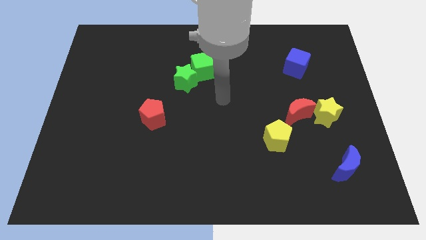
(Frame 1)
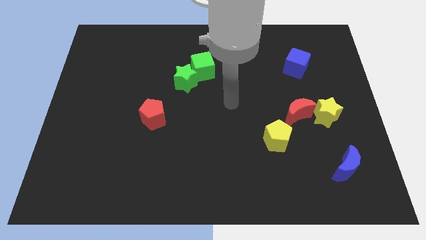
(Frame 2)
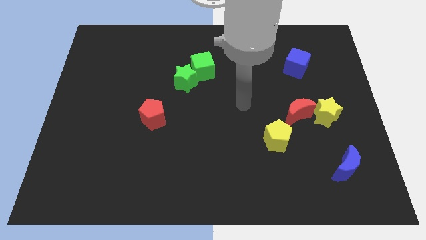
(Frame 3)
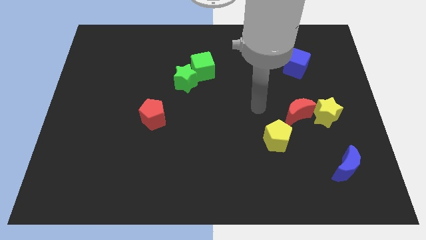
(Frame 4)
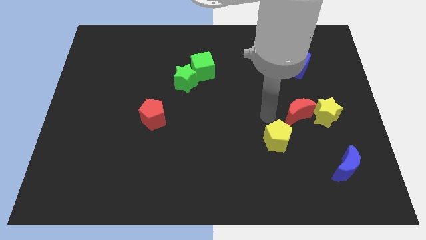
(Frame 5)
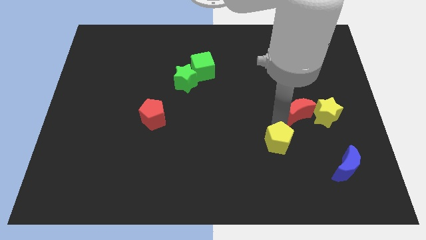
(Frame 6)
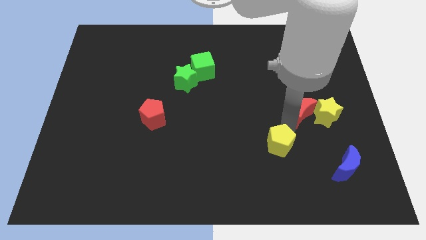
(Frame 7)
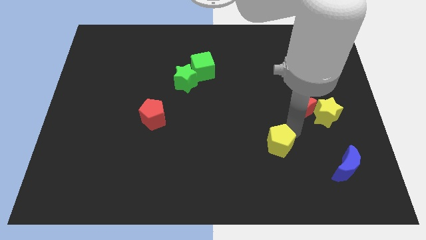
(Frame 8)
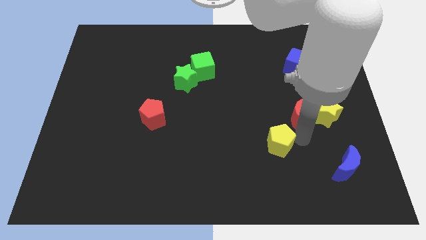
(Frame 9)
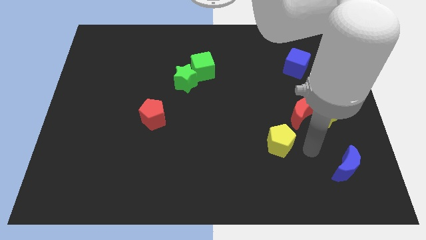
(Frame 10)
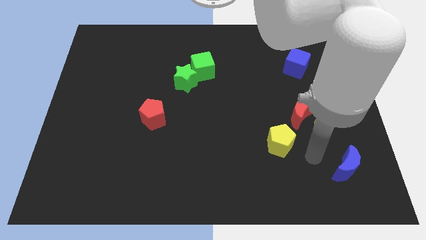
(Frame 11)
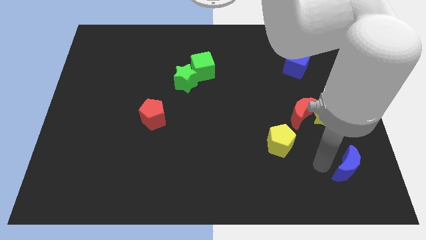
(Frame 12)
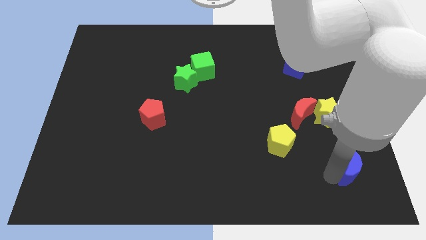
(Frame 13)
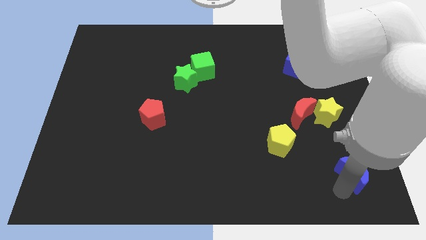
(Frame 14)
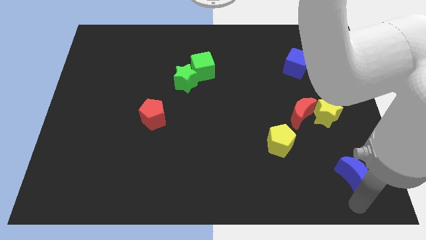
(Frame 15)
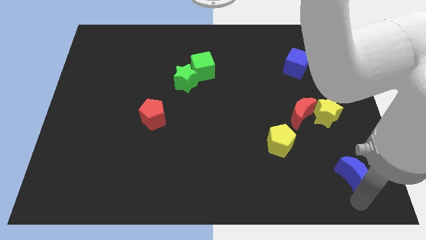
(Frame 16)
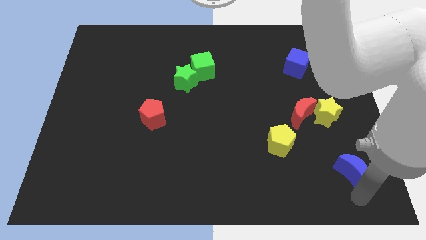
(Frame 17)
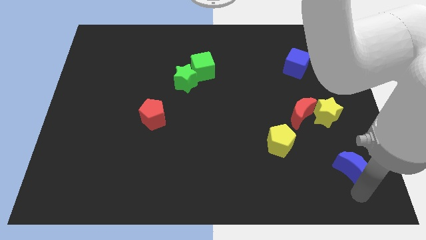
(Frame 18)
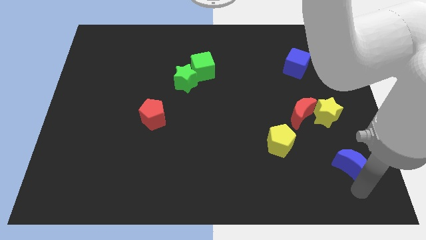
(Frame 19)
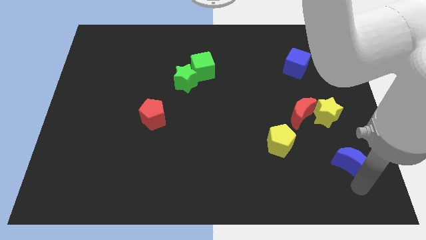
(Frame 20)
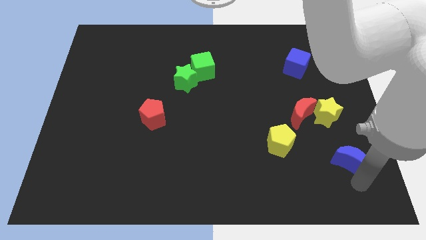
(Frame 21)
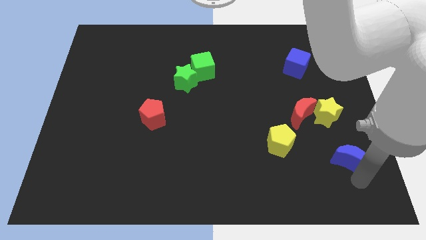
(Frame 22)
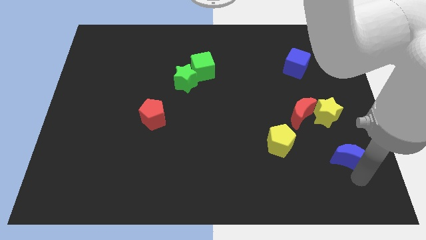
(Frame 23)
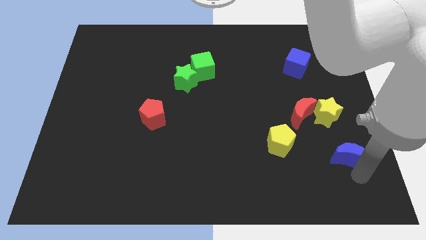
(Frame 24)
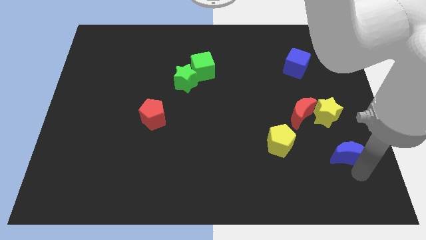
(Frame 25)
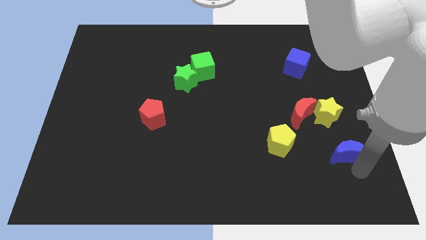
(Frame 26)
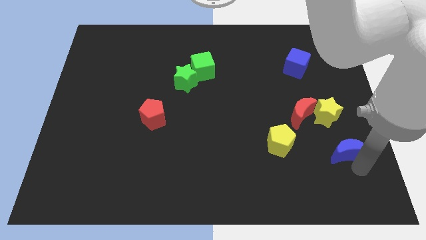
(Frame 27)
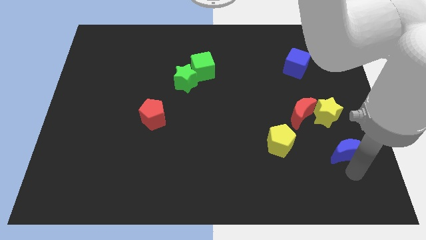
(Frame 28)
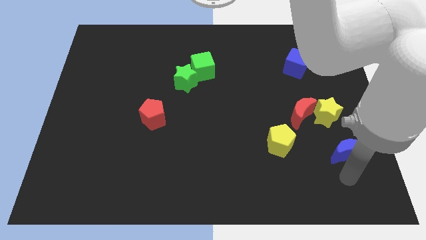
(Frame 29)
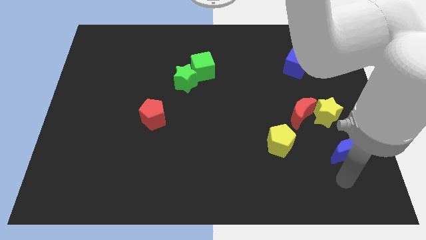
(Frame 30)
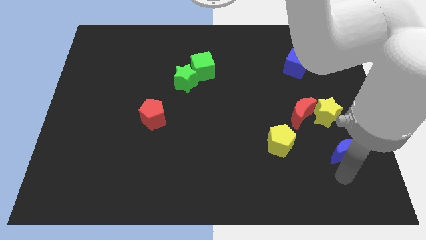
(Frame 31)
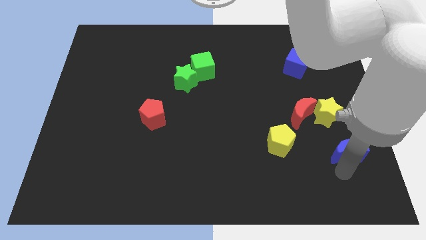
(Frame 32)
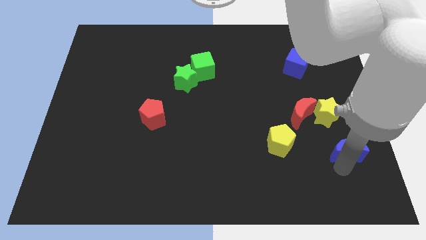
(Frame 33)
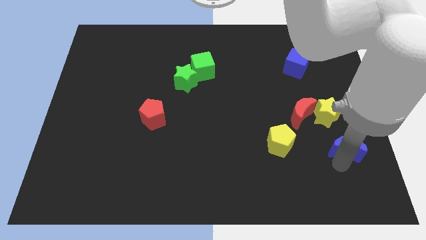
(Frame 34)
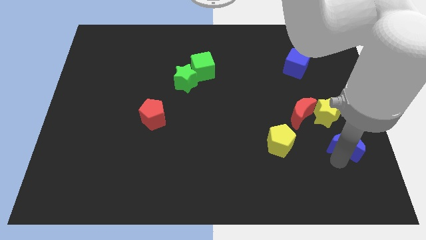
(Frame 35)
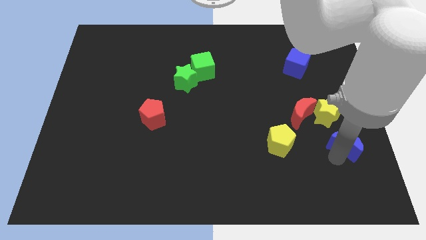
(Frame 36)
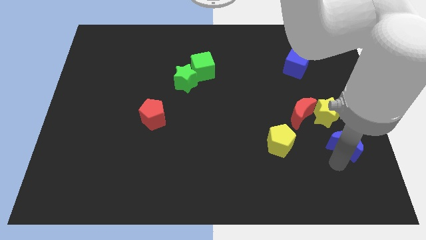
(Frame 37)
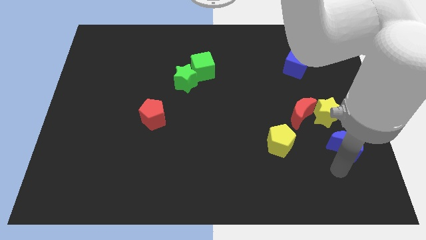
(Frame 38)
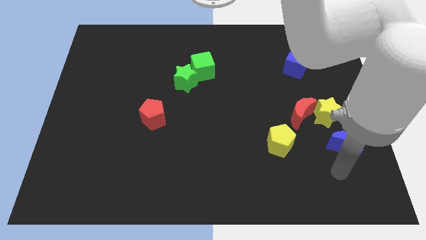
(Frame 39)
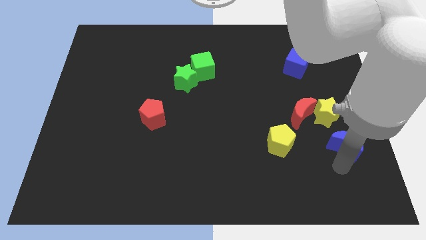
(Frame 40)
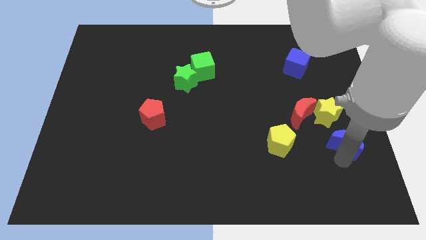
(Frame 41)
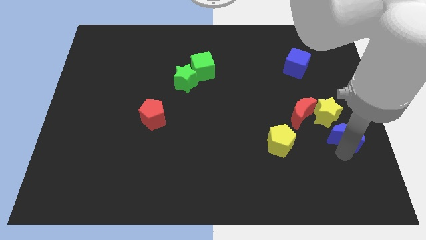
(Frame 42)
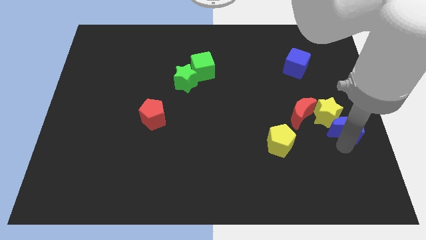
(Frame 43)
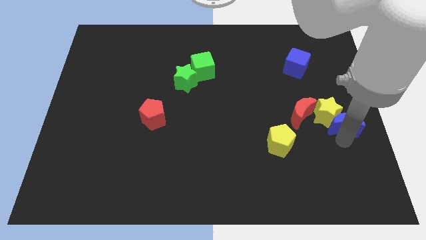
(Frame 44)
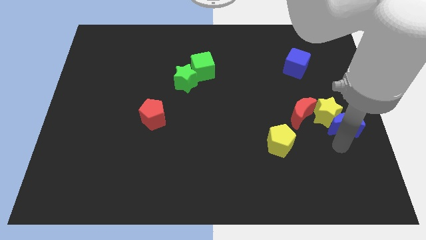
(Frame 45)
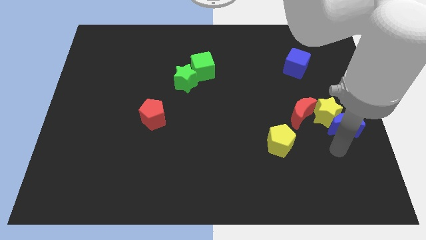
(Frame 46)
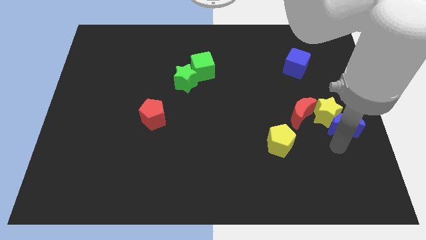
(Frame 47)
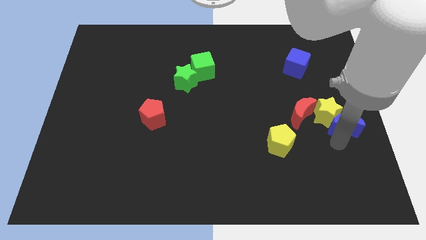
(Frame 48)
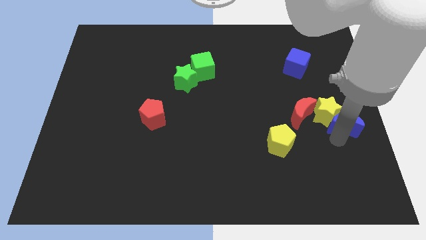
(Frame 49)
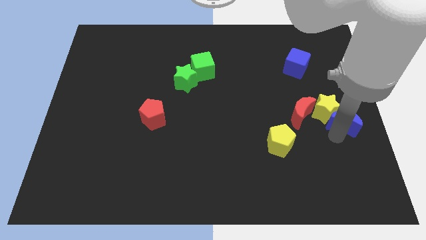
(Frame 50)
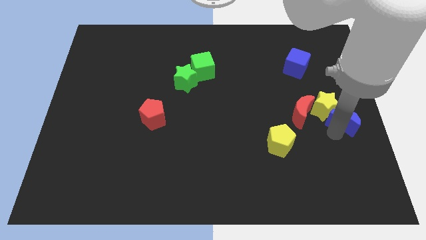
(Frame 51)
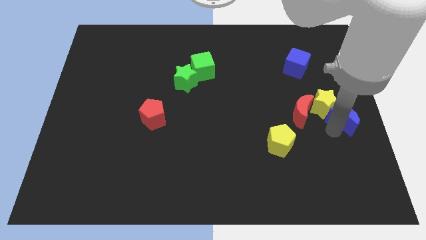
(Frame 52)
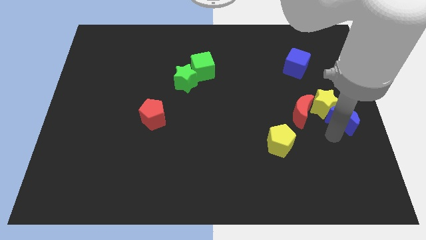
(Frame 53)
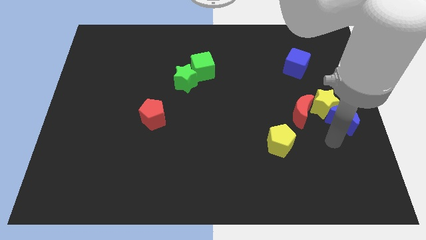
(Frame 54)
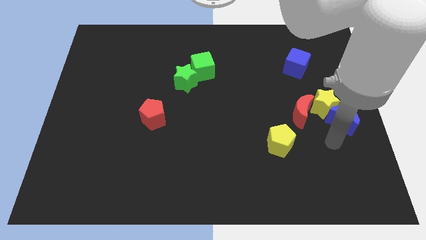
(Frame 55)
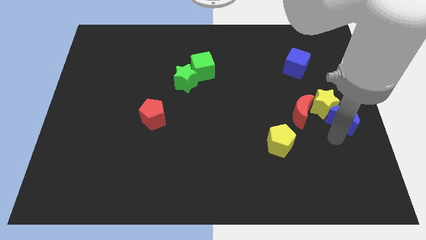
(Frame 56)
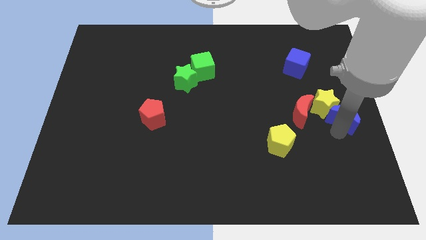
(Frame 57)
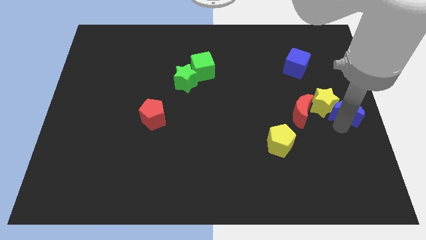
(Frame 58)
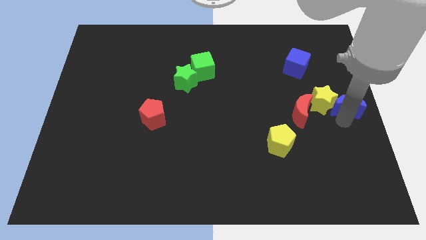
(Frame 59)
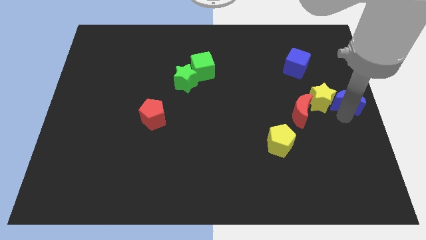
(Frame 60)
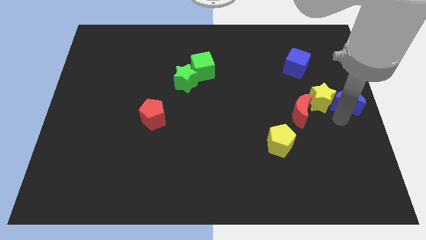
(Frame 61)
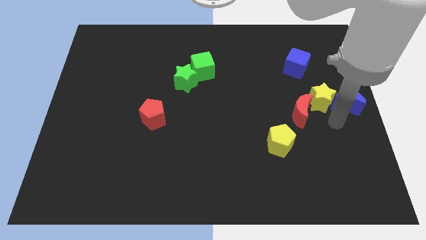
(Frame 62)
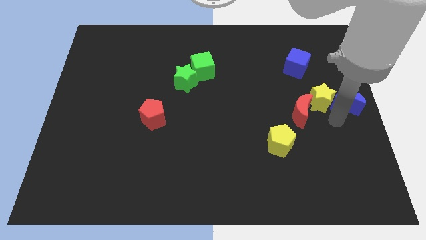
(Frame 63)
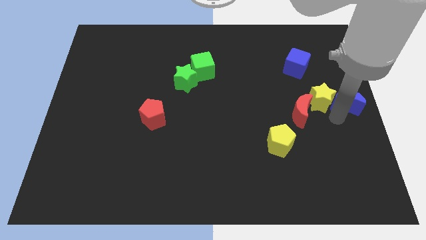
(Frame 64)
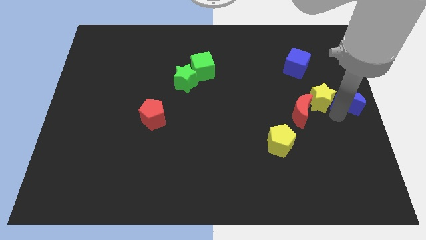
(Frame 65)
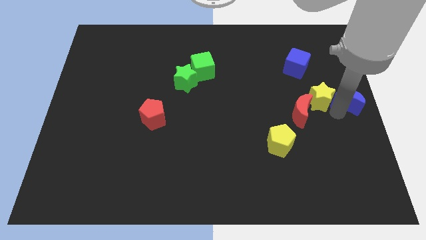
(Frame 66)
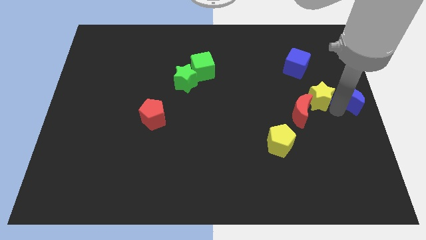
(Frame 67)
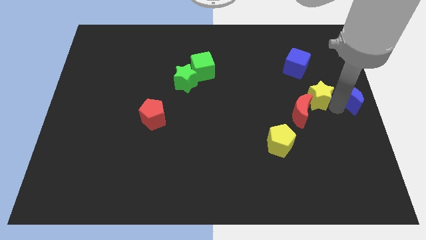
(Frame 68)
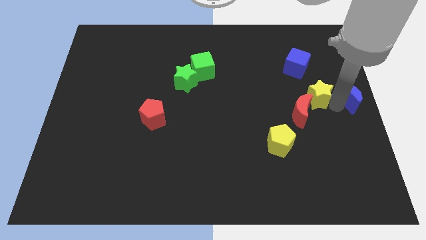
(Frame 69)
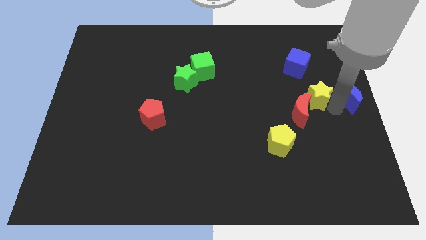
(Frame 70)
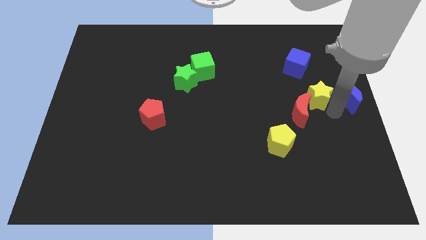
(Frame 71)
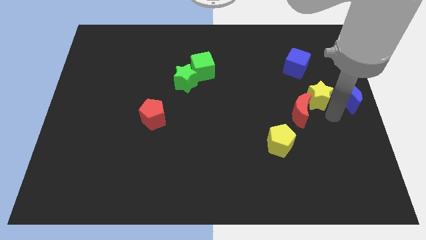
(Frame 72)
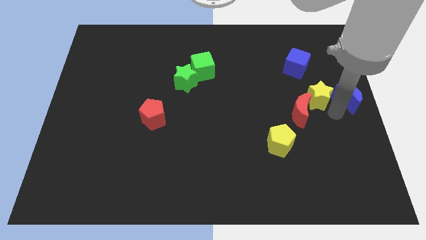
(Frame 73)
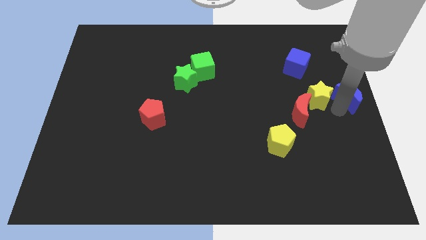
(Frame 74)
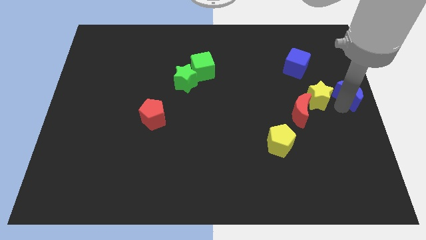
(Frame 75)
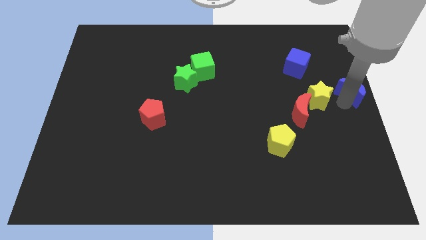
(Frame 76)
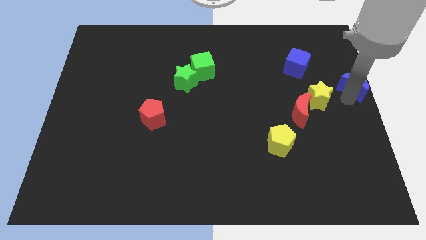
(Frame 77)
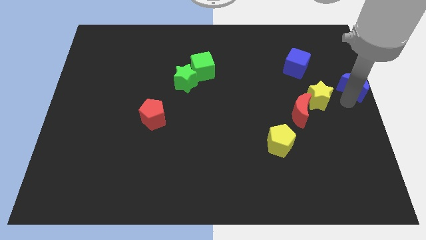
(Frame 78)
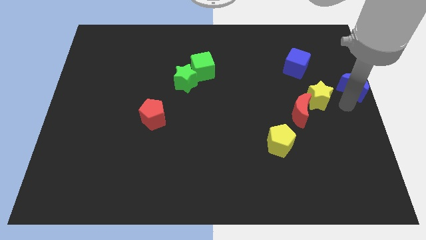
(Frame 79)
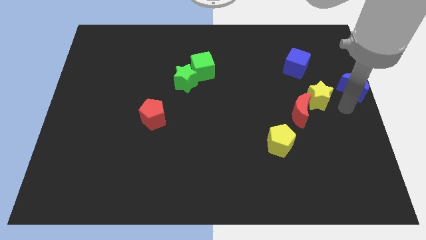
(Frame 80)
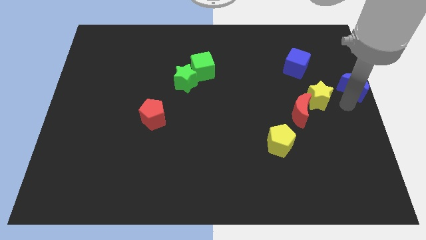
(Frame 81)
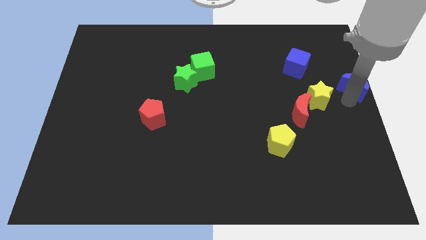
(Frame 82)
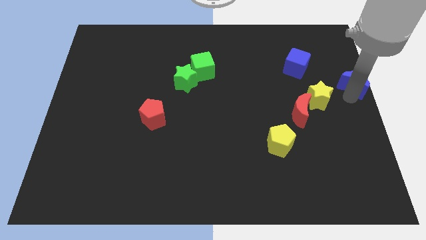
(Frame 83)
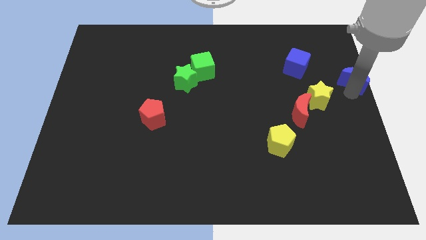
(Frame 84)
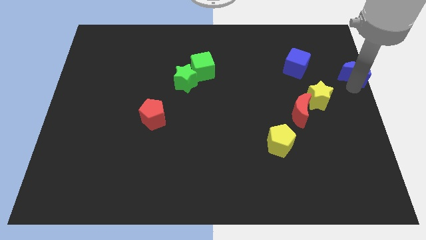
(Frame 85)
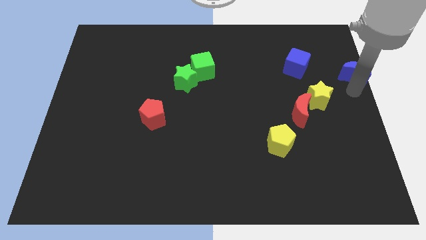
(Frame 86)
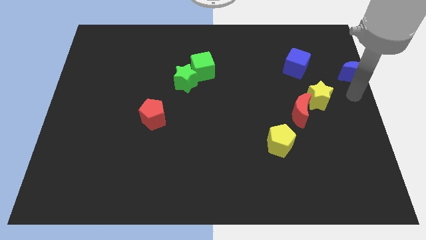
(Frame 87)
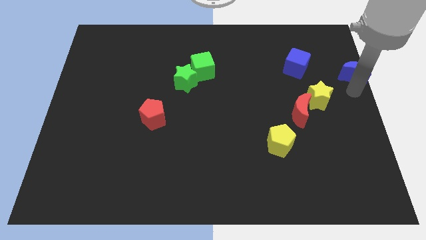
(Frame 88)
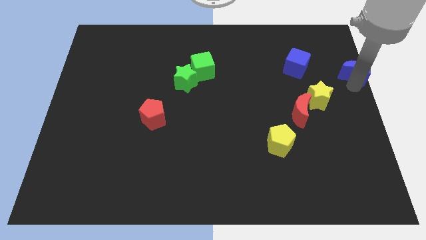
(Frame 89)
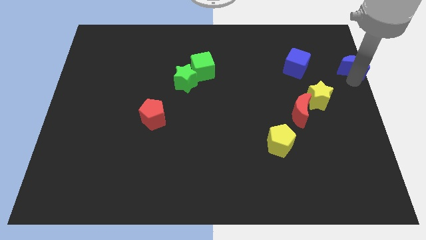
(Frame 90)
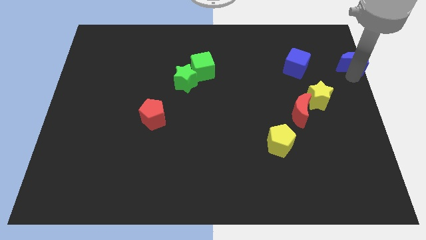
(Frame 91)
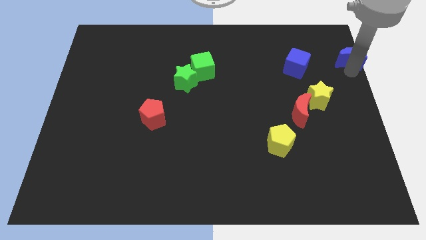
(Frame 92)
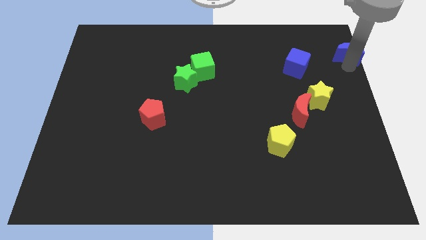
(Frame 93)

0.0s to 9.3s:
push the blue moon to the top right
